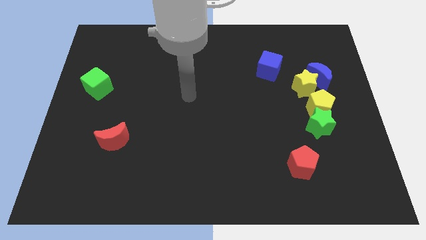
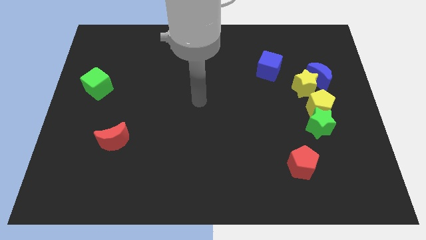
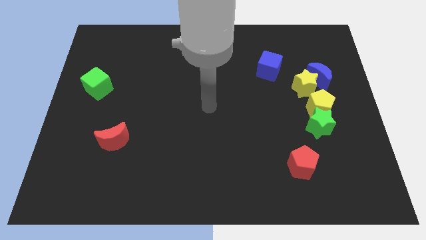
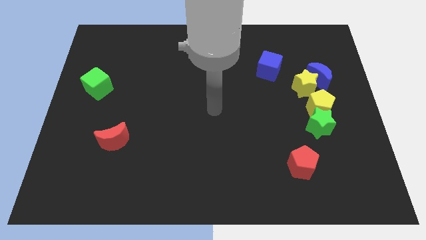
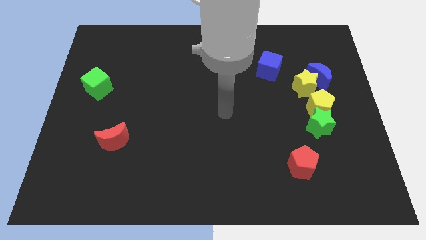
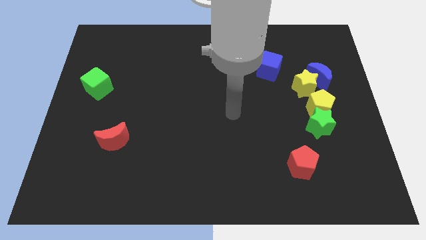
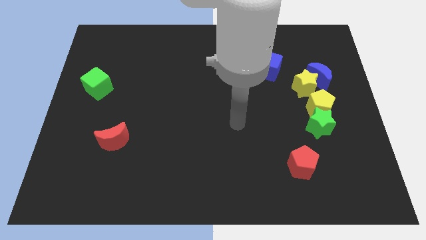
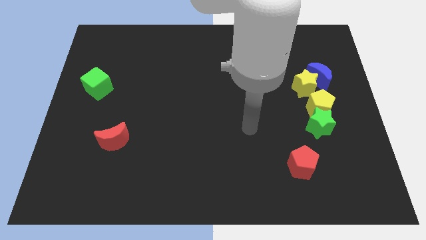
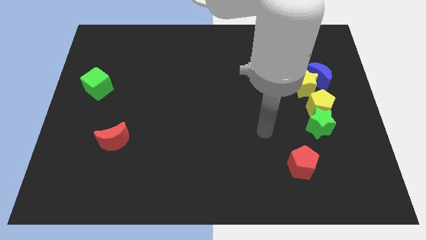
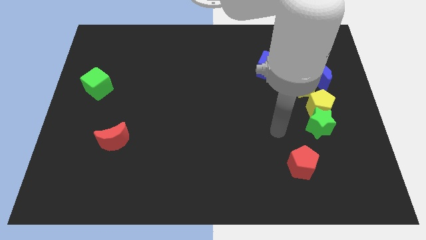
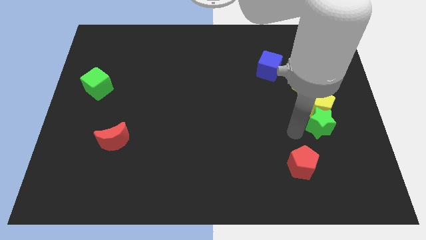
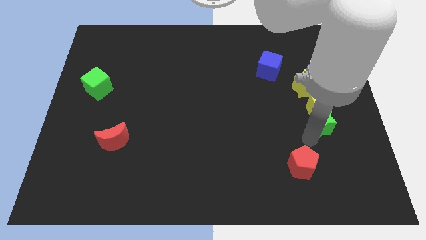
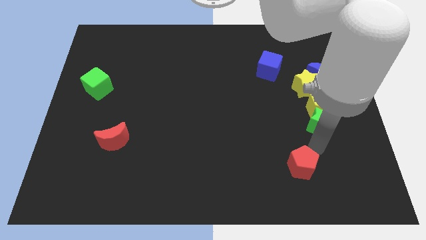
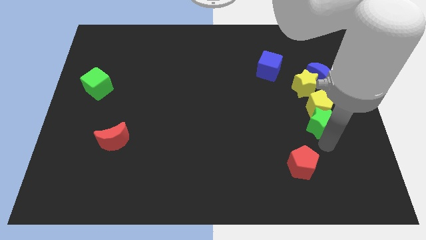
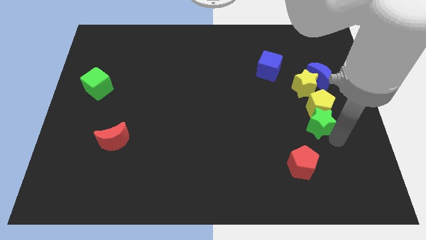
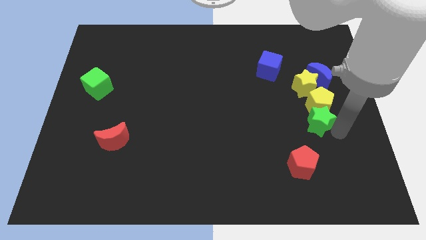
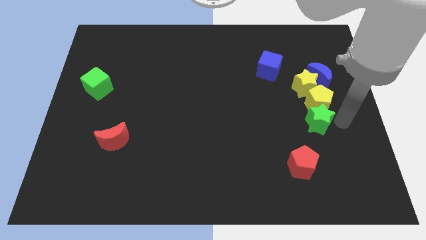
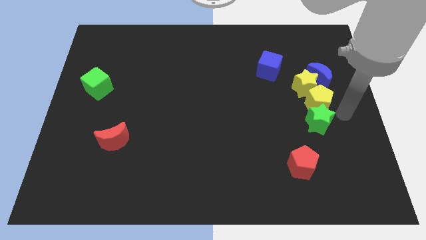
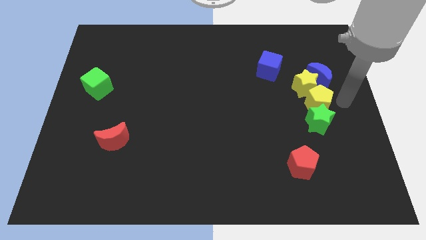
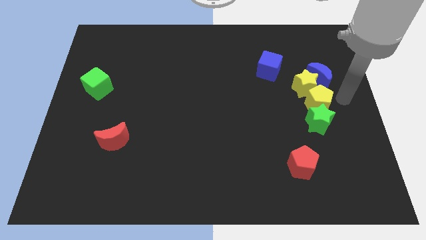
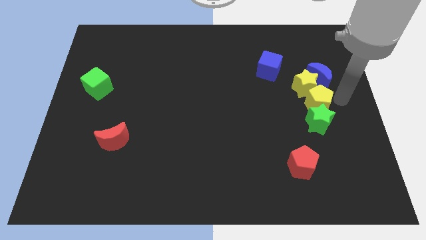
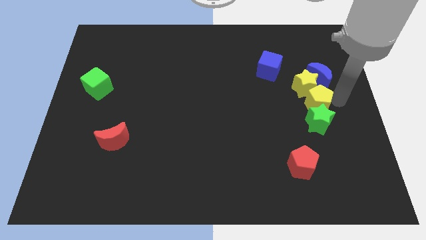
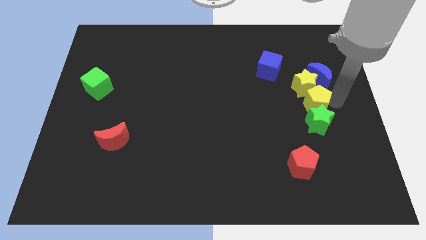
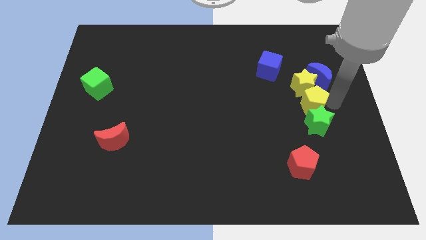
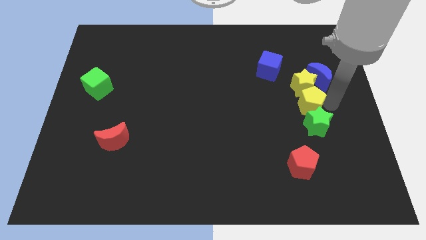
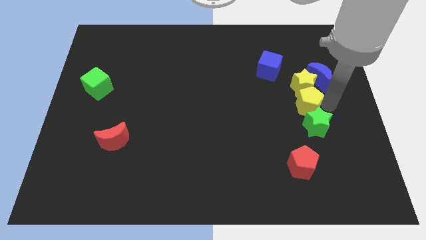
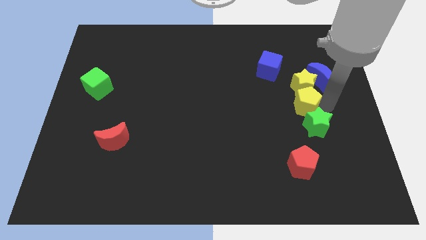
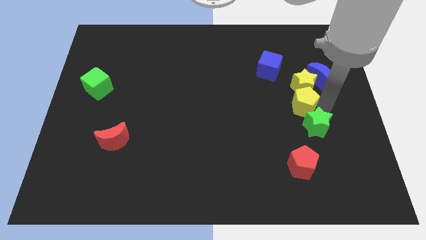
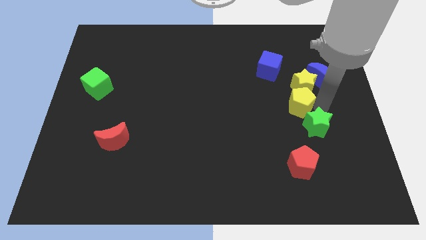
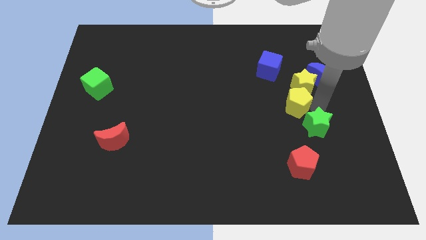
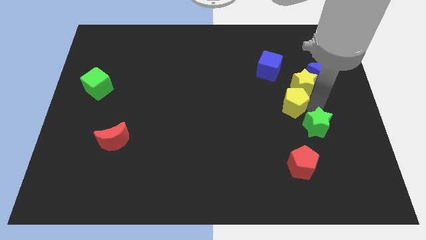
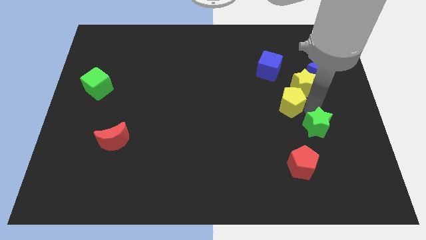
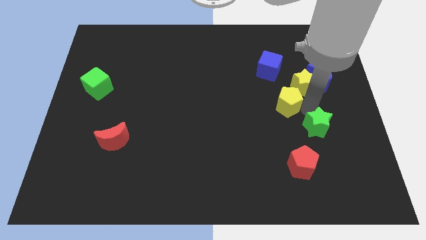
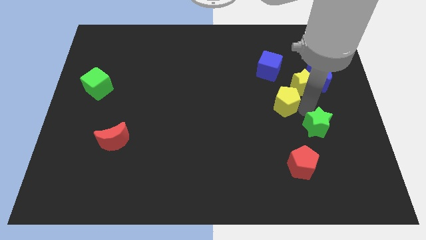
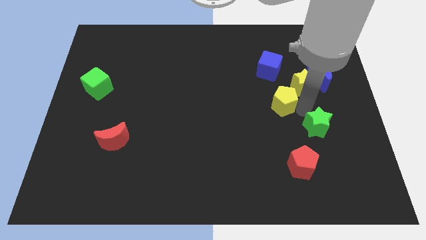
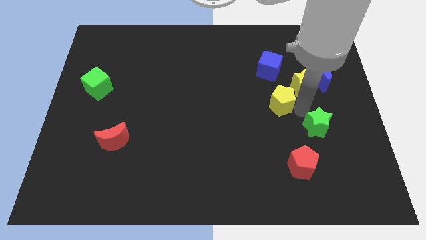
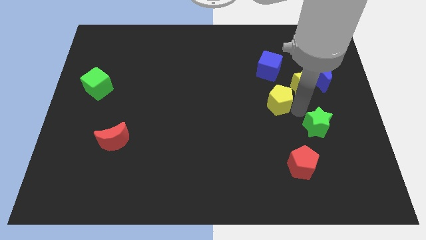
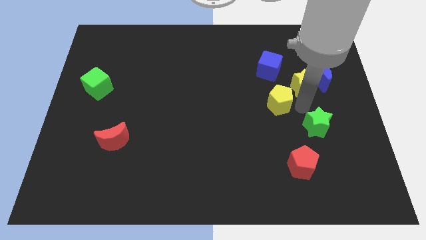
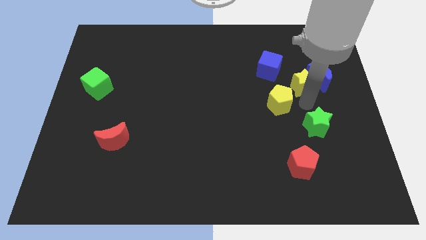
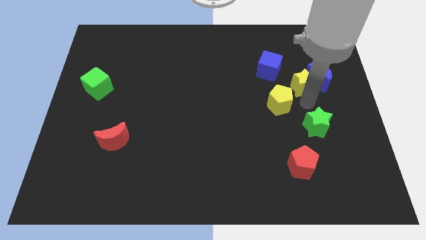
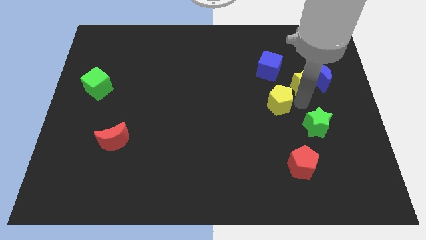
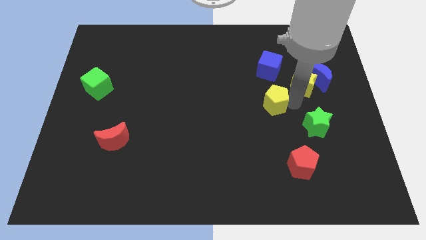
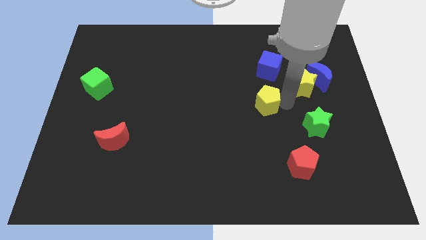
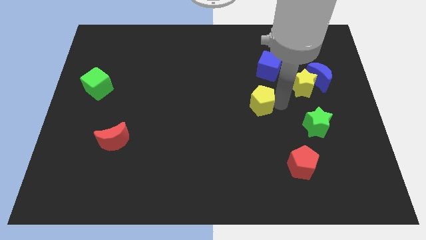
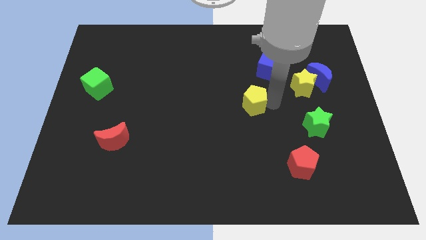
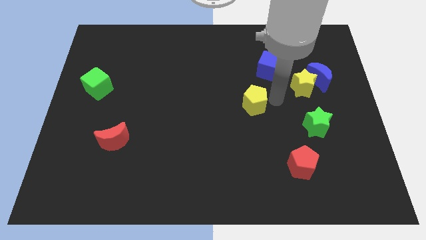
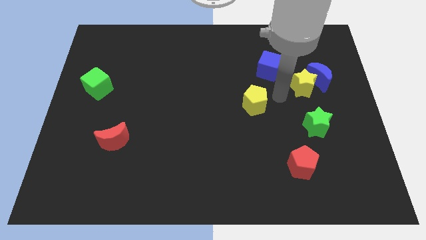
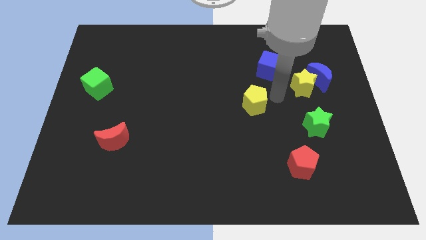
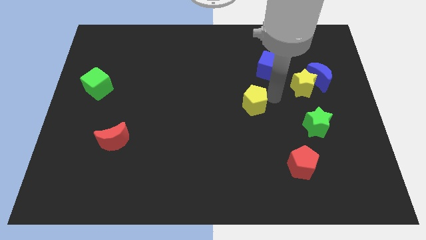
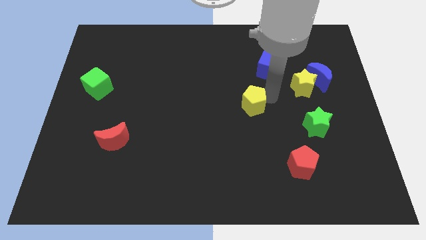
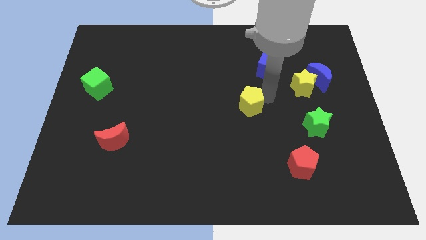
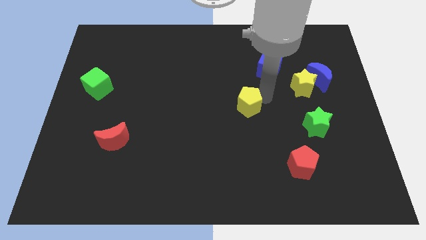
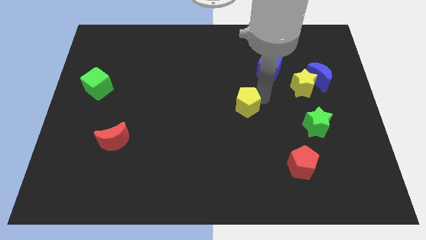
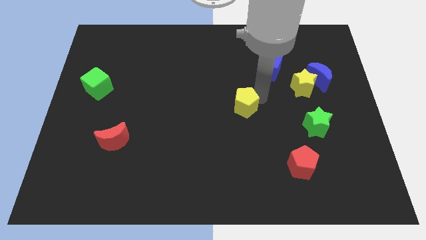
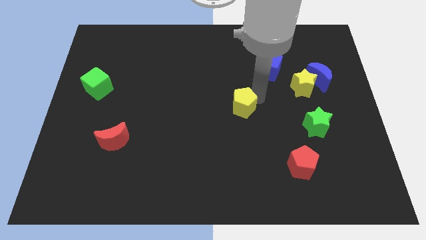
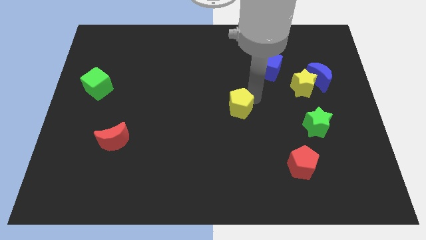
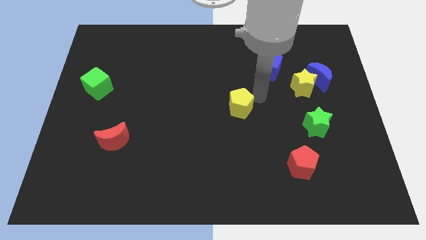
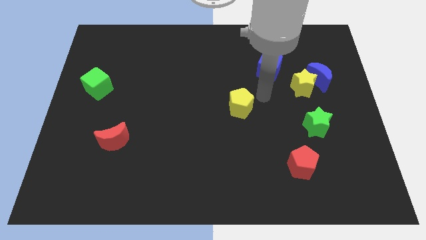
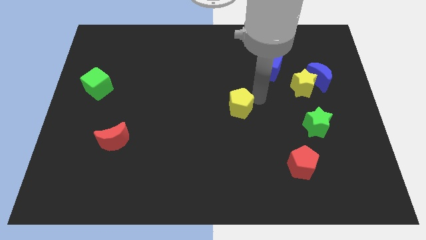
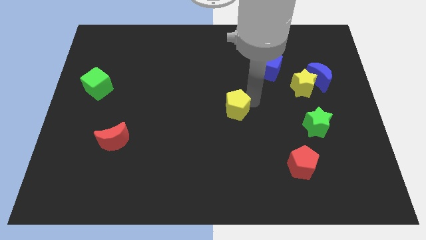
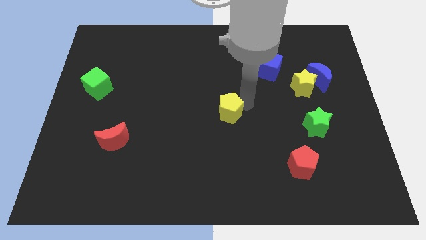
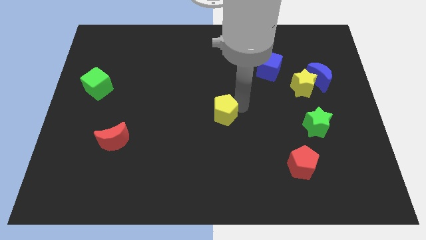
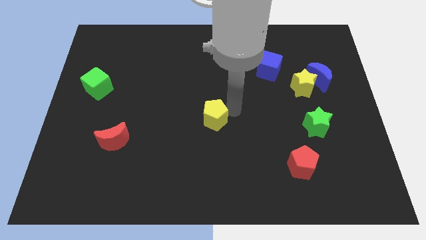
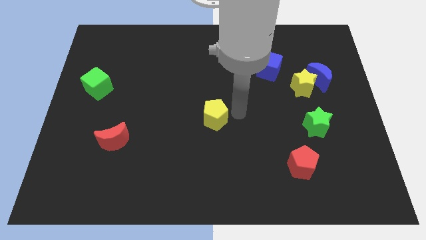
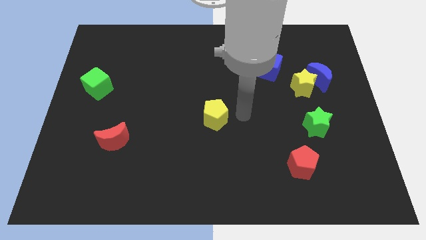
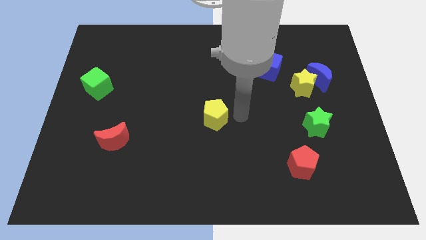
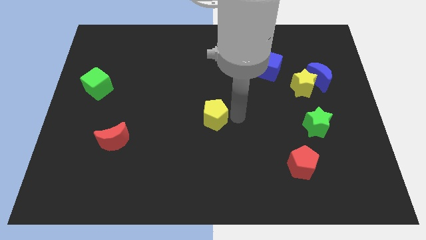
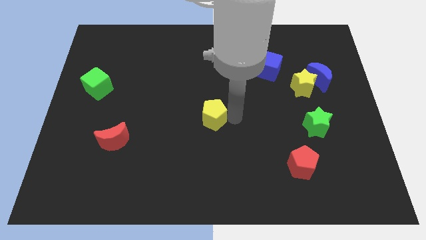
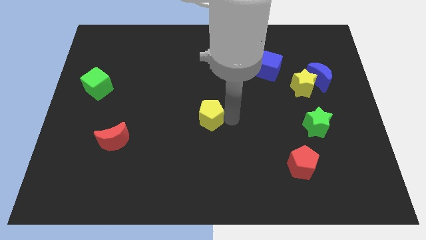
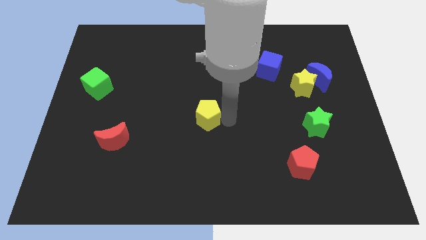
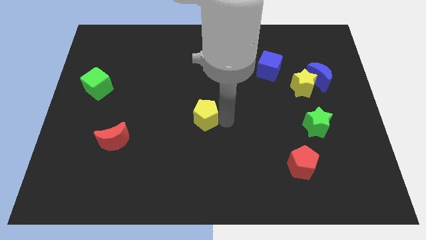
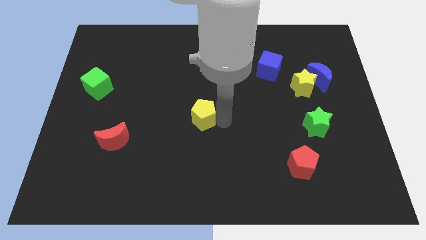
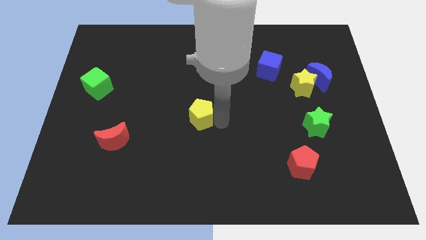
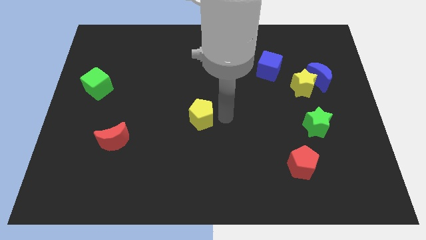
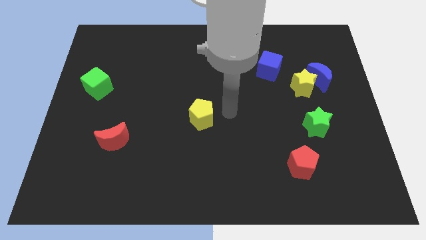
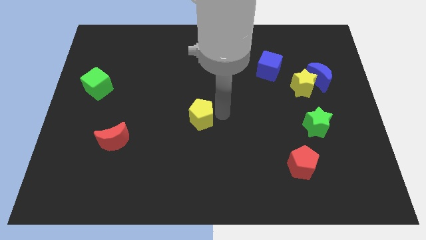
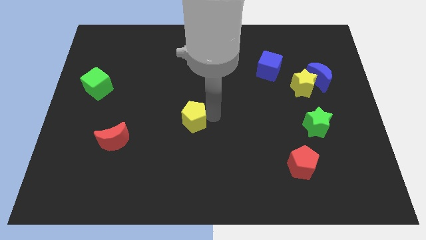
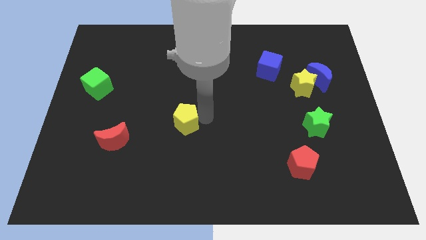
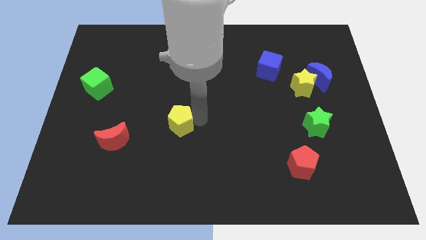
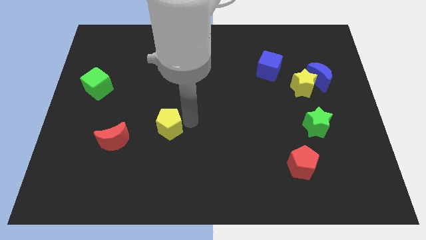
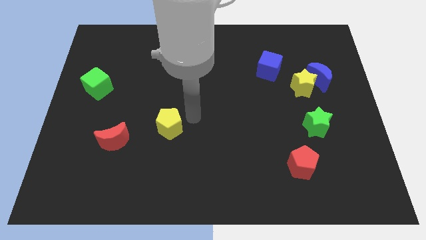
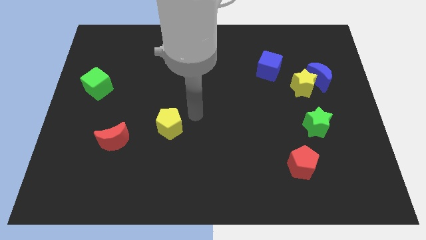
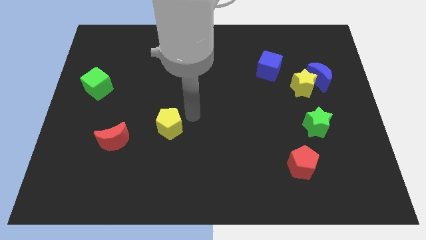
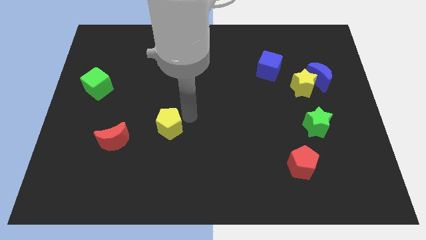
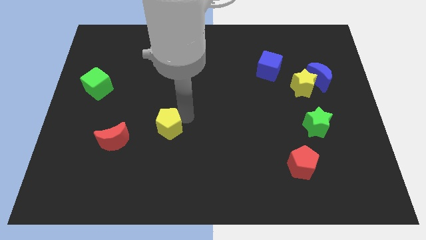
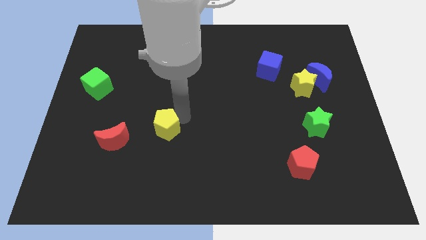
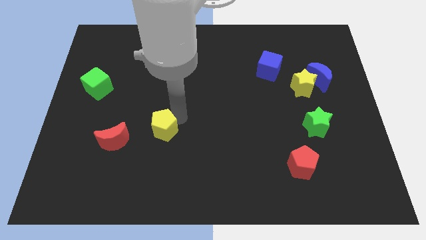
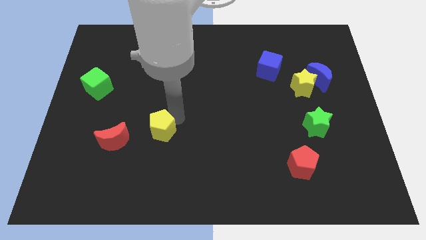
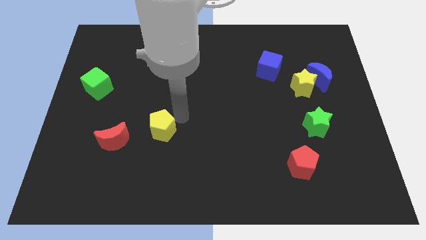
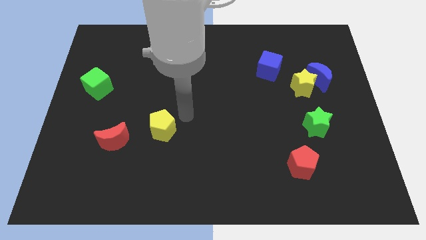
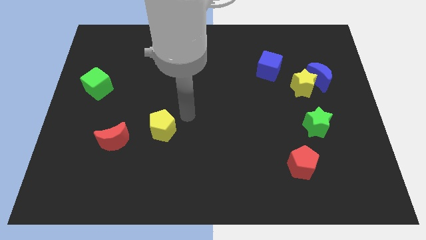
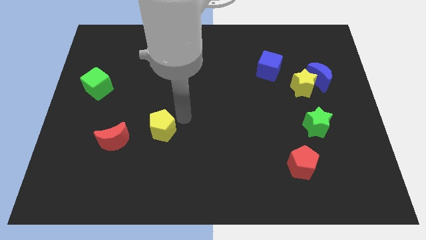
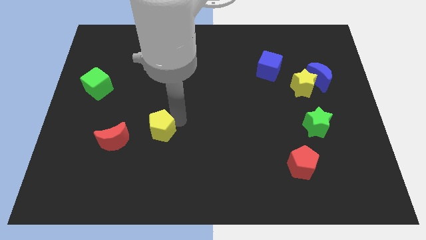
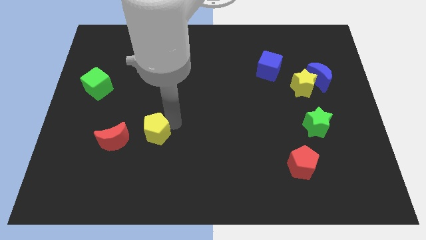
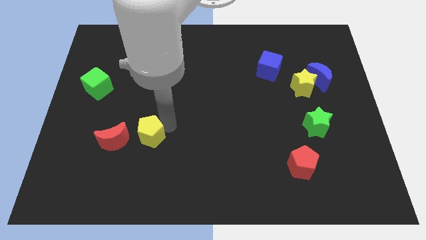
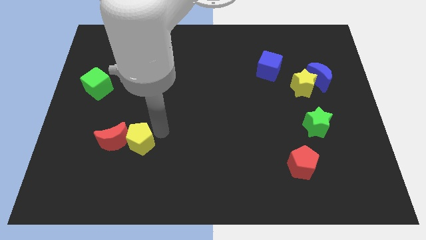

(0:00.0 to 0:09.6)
move the yellow pentagon next to the red moon
